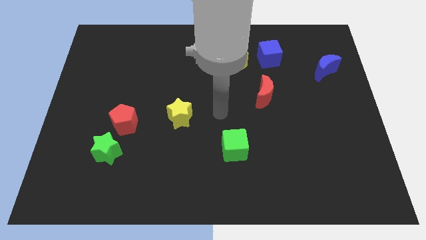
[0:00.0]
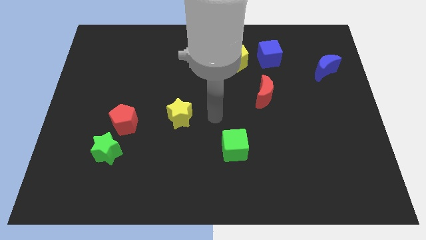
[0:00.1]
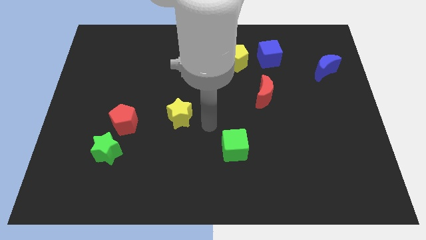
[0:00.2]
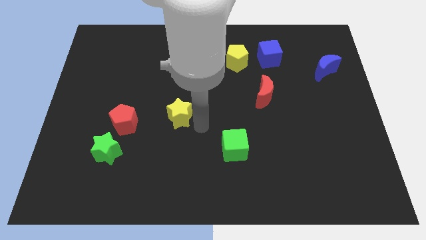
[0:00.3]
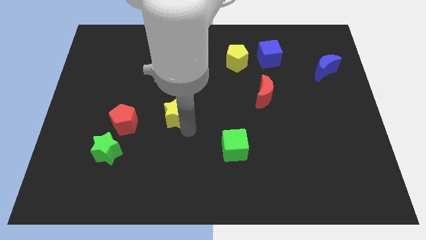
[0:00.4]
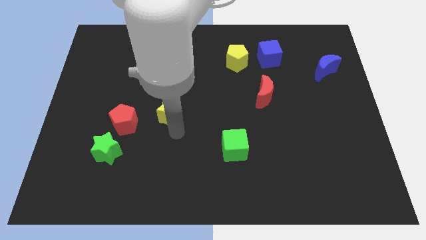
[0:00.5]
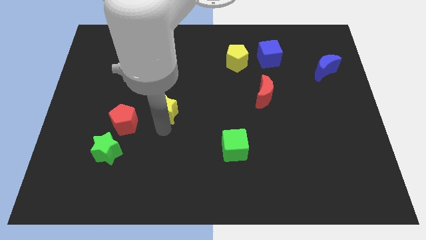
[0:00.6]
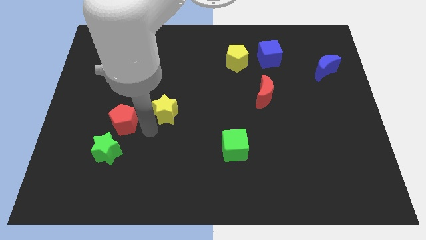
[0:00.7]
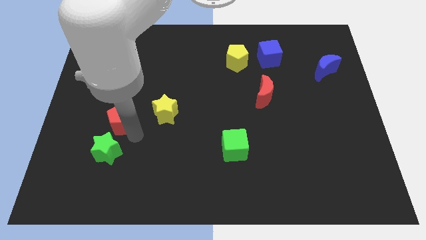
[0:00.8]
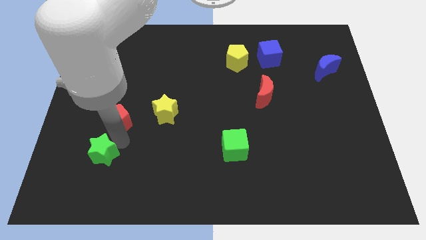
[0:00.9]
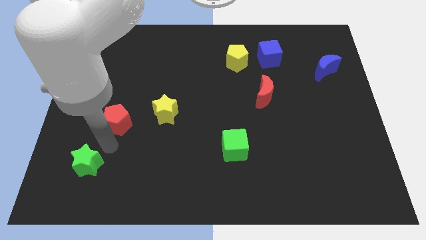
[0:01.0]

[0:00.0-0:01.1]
move the red pentagon away from the green star

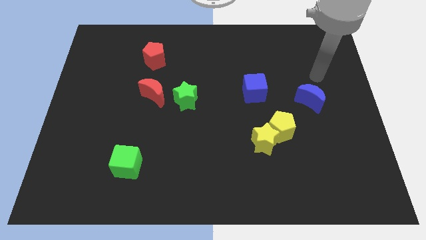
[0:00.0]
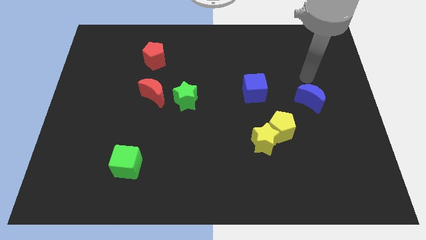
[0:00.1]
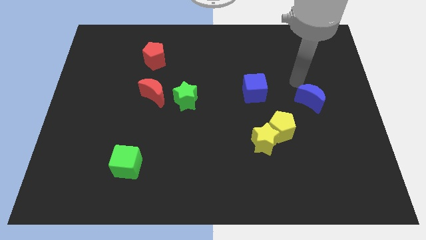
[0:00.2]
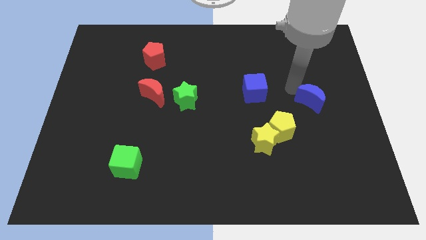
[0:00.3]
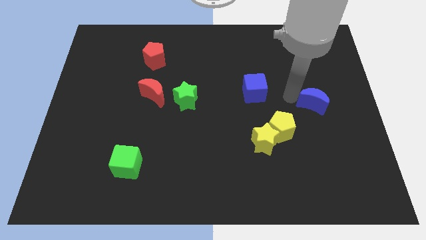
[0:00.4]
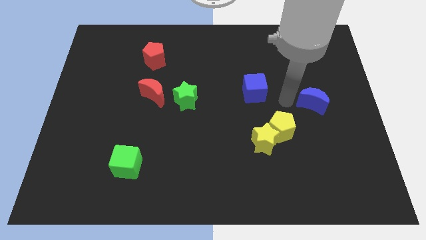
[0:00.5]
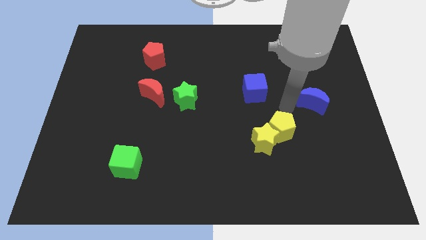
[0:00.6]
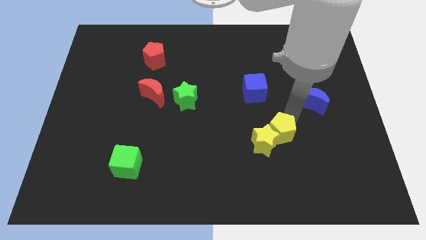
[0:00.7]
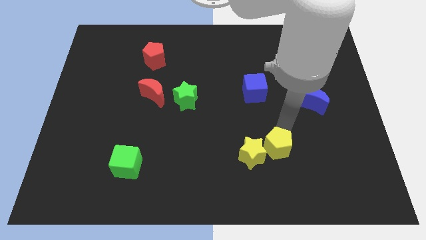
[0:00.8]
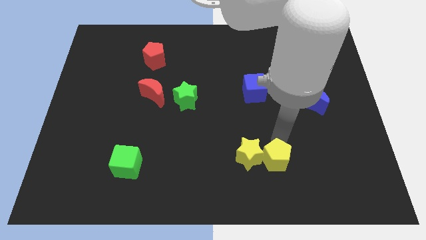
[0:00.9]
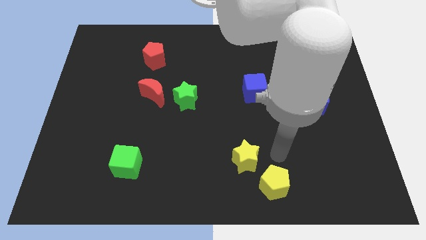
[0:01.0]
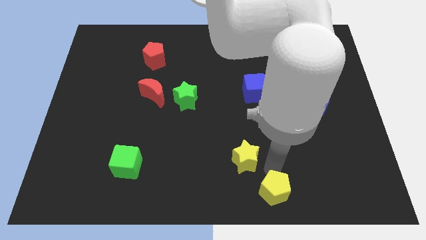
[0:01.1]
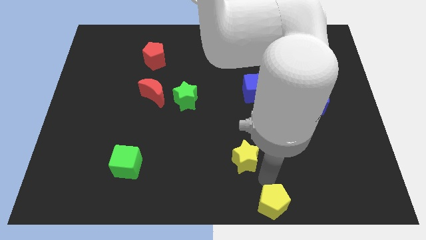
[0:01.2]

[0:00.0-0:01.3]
separate the yellow star from the yellow pentagon

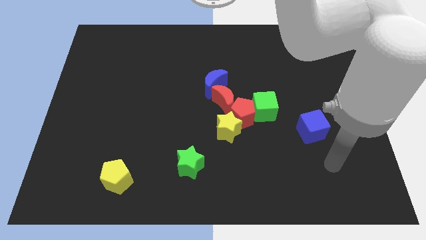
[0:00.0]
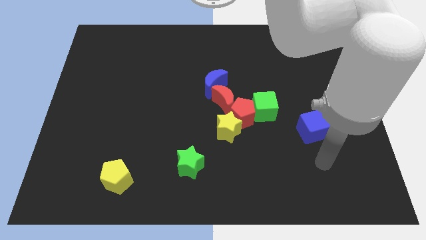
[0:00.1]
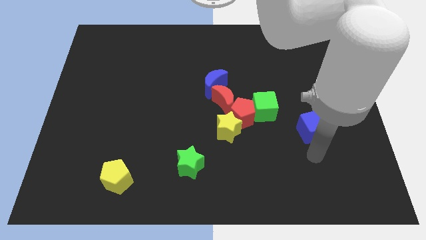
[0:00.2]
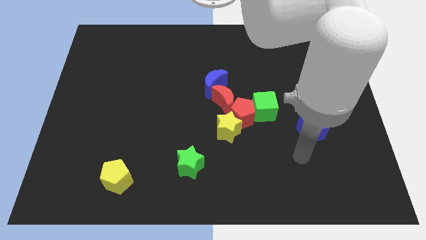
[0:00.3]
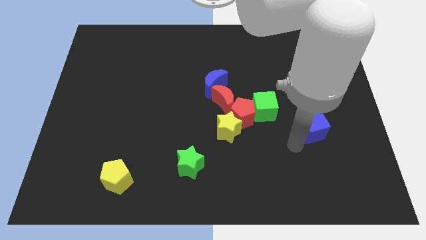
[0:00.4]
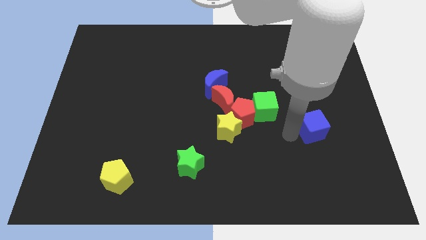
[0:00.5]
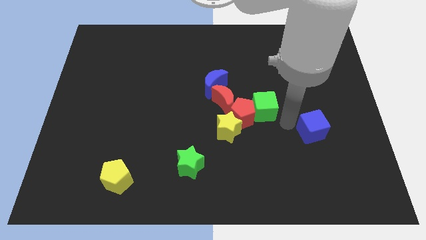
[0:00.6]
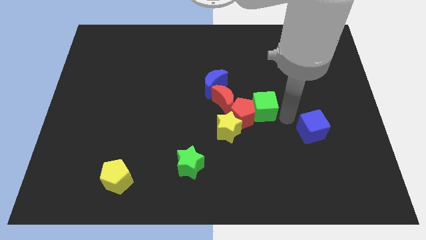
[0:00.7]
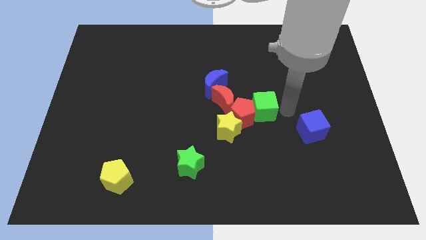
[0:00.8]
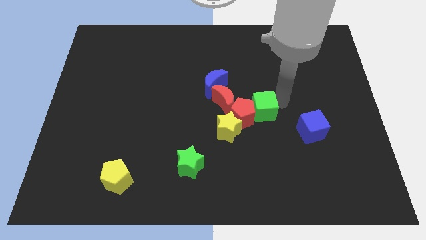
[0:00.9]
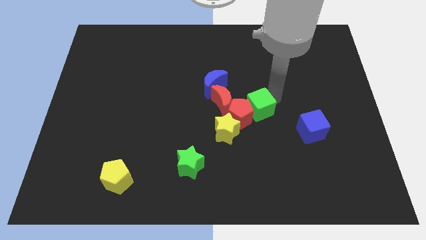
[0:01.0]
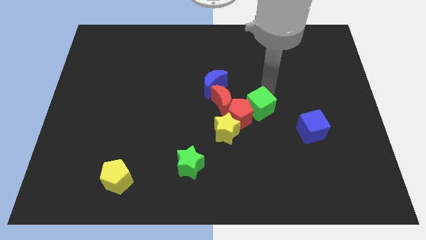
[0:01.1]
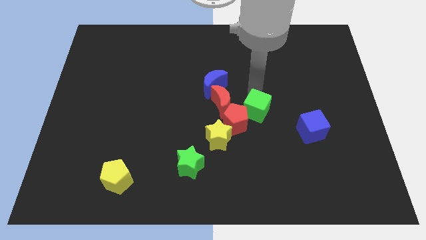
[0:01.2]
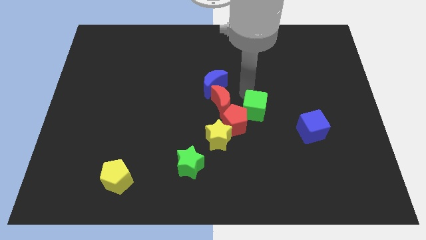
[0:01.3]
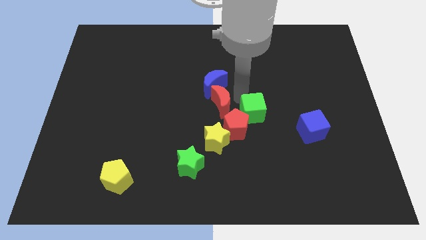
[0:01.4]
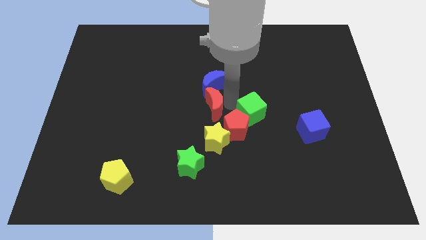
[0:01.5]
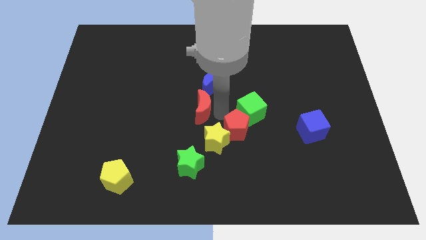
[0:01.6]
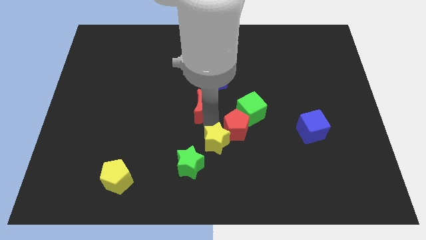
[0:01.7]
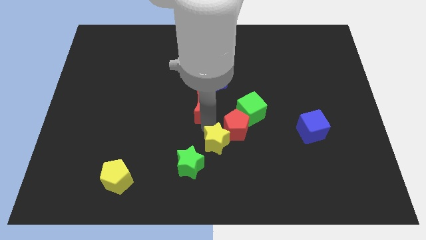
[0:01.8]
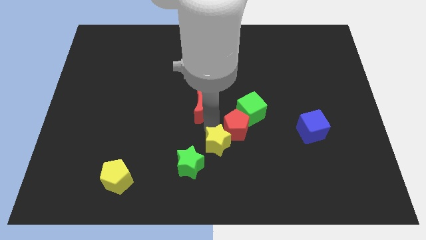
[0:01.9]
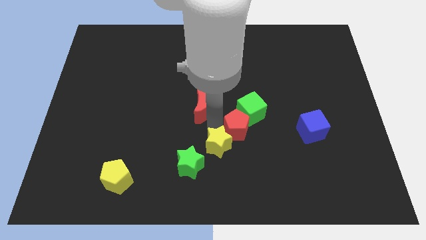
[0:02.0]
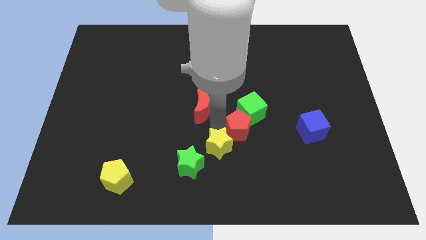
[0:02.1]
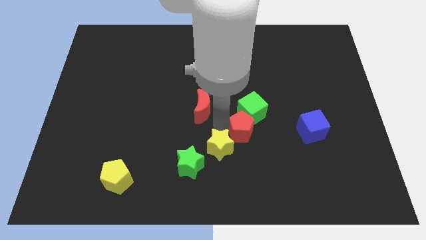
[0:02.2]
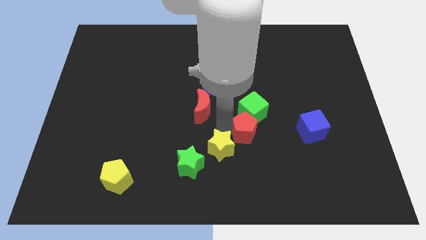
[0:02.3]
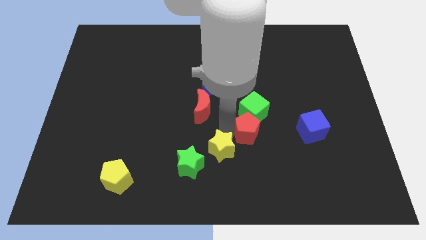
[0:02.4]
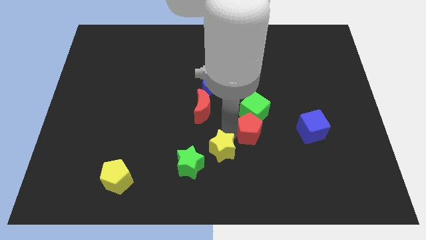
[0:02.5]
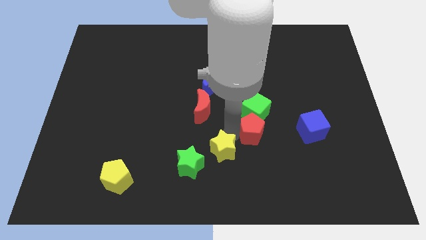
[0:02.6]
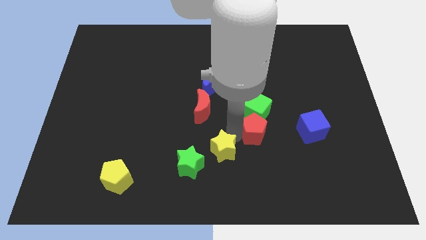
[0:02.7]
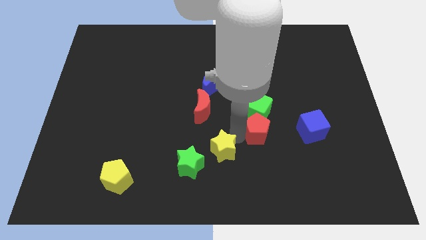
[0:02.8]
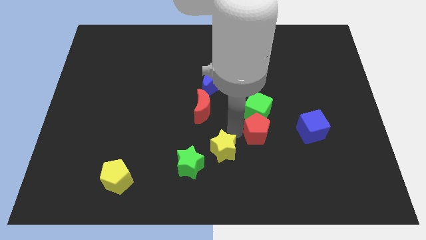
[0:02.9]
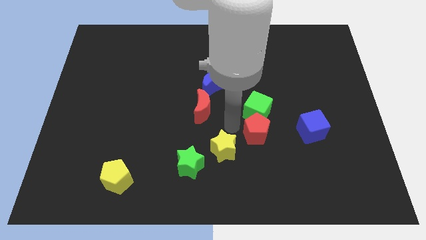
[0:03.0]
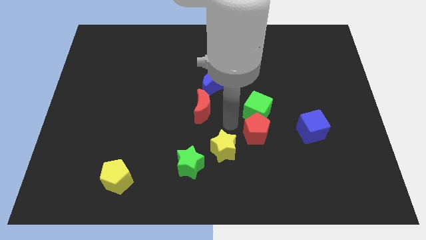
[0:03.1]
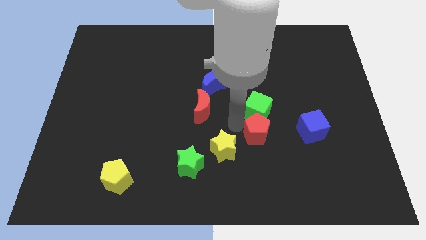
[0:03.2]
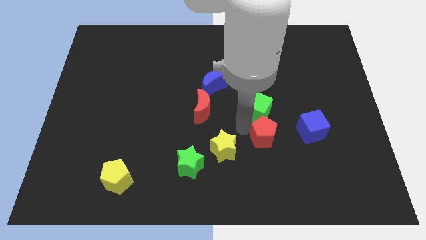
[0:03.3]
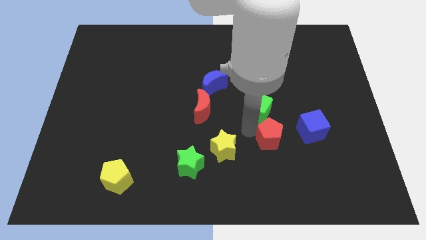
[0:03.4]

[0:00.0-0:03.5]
separate the red pentagon from the yellow star, green cube, and red moon

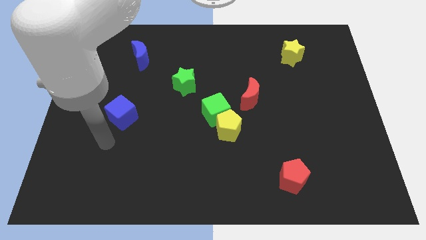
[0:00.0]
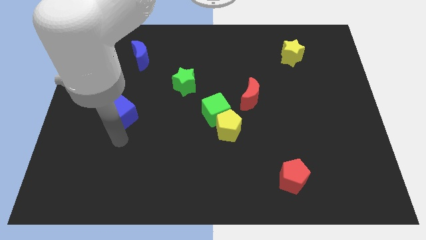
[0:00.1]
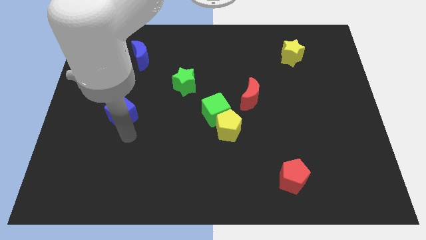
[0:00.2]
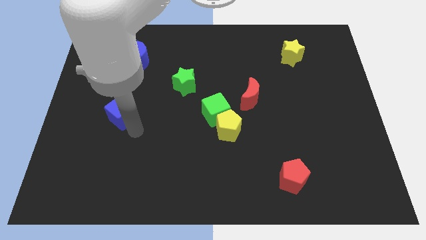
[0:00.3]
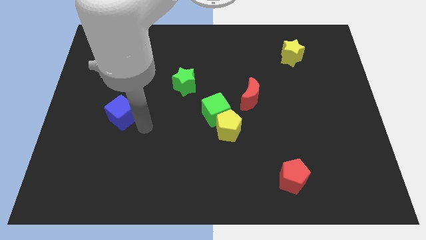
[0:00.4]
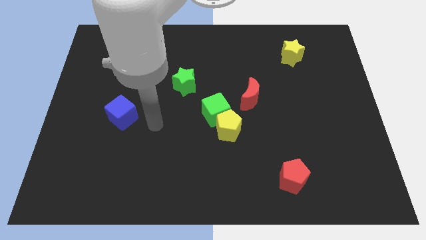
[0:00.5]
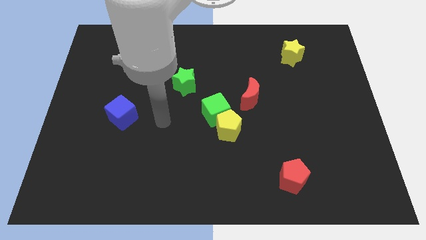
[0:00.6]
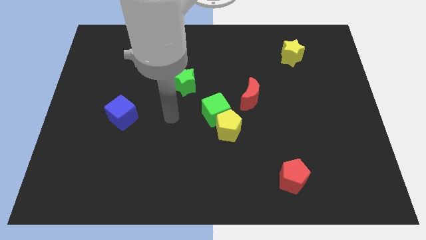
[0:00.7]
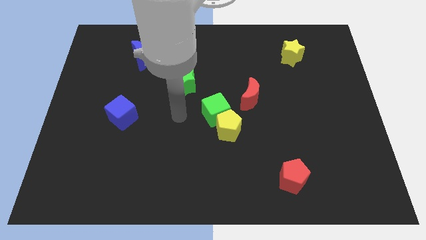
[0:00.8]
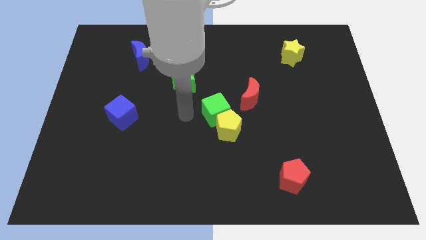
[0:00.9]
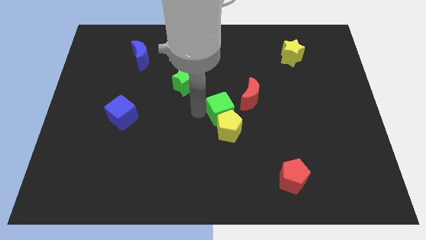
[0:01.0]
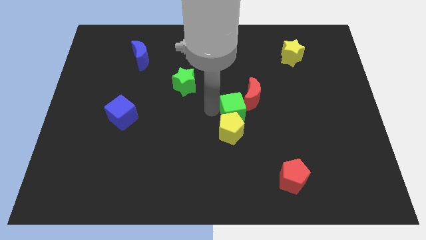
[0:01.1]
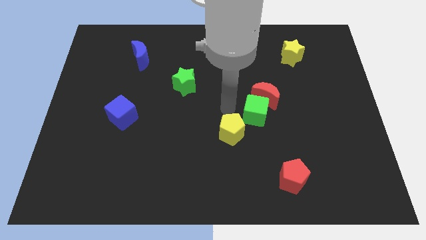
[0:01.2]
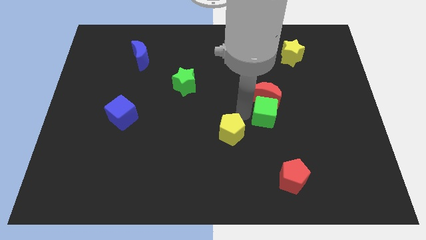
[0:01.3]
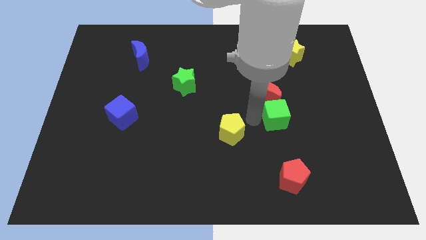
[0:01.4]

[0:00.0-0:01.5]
pull the yellow pentagon apart from the green cube

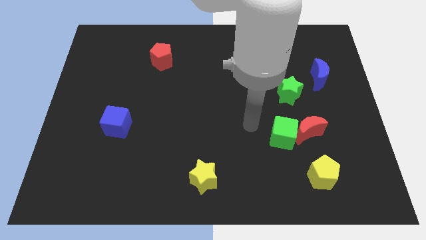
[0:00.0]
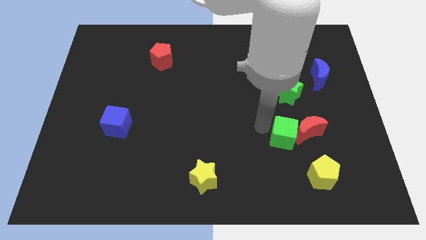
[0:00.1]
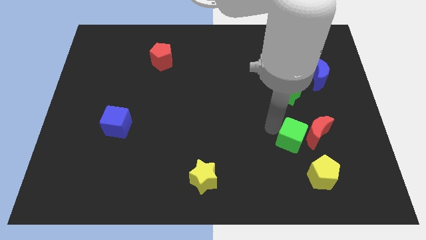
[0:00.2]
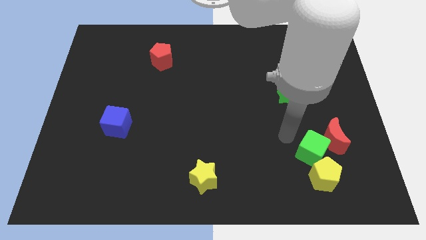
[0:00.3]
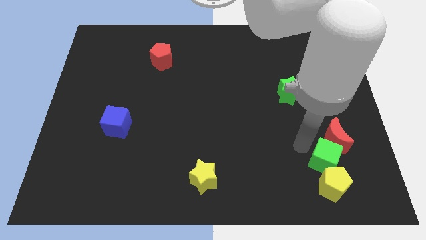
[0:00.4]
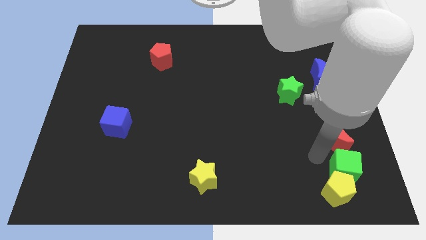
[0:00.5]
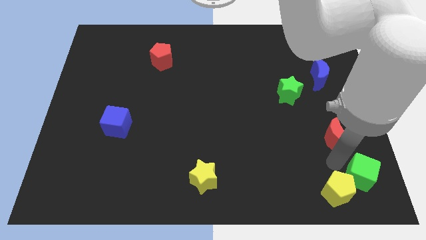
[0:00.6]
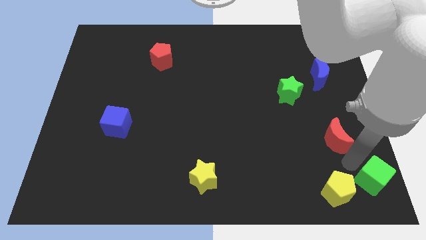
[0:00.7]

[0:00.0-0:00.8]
move the red moon away from the green cube

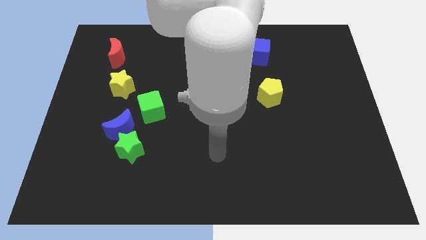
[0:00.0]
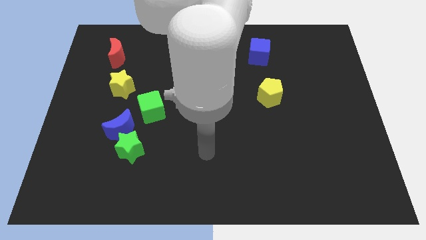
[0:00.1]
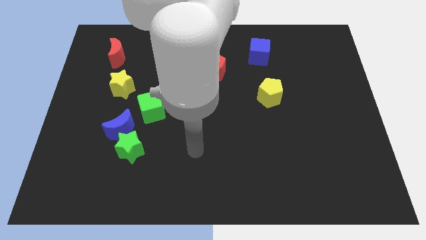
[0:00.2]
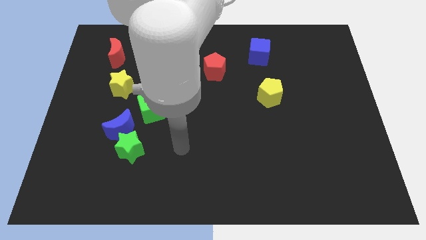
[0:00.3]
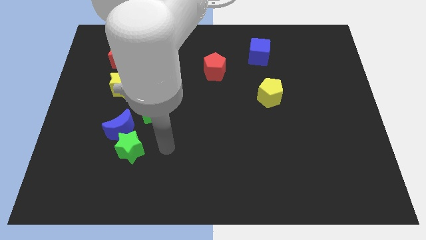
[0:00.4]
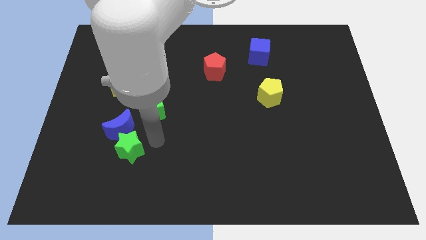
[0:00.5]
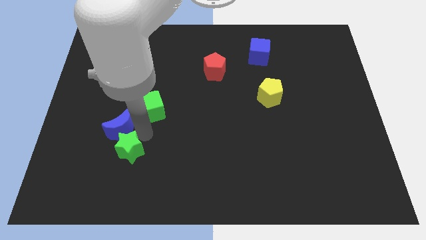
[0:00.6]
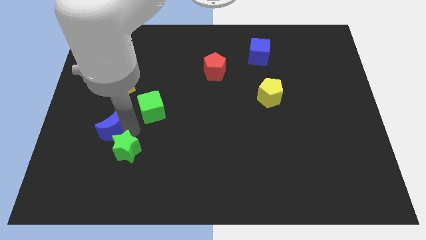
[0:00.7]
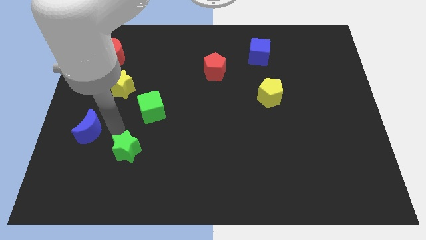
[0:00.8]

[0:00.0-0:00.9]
pull the green star apart from the blue moon
